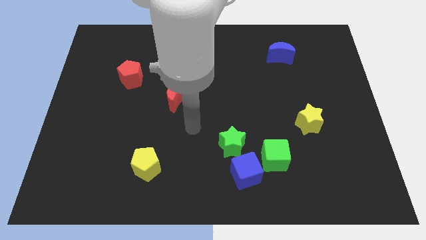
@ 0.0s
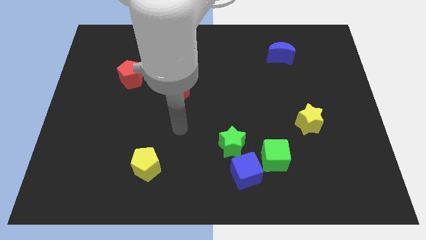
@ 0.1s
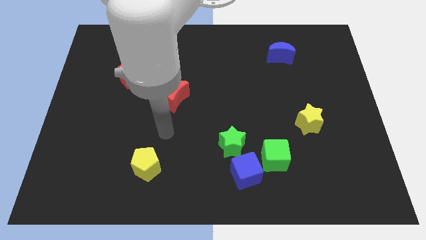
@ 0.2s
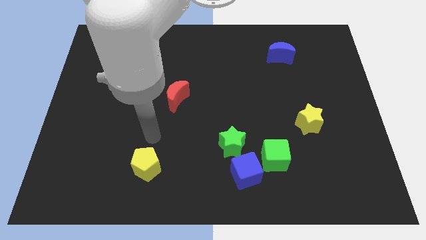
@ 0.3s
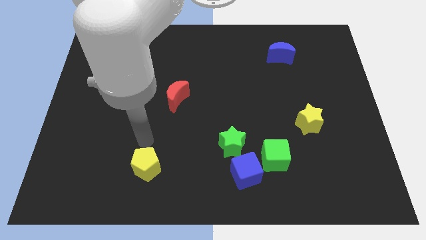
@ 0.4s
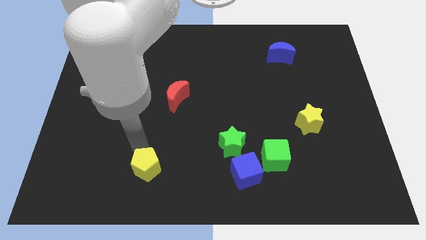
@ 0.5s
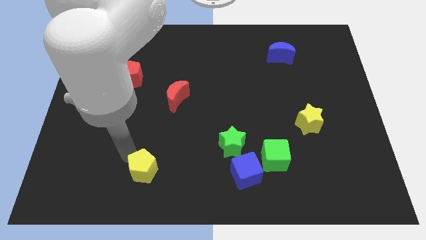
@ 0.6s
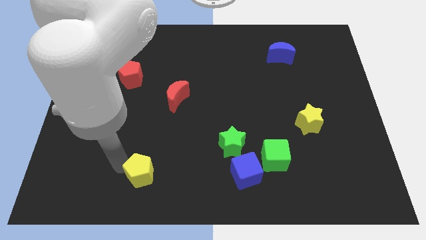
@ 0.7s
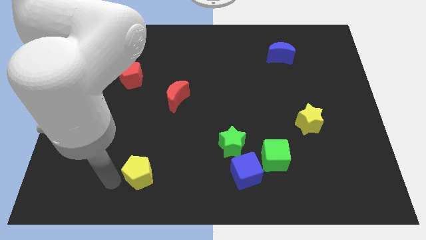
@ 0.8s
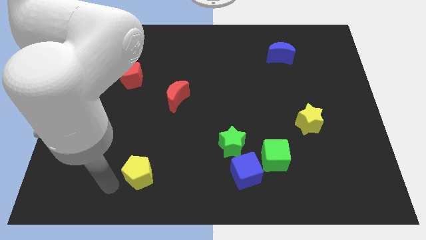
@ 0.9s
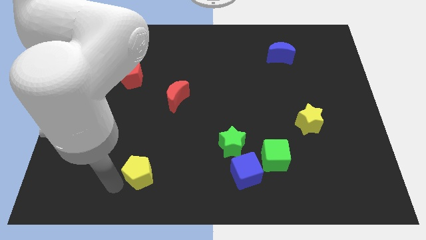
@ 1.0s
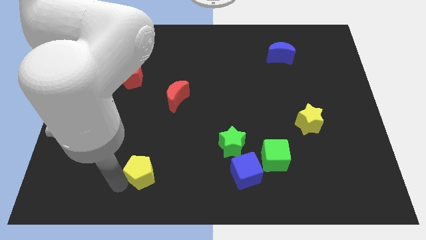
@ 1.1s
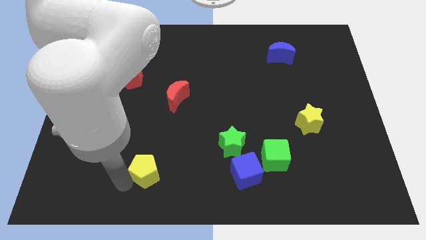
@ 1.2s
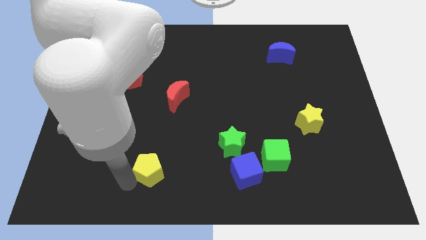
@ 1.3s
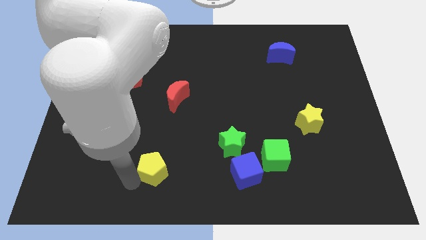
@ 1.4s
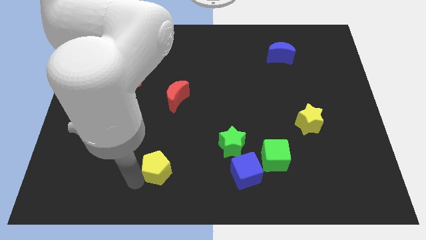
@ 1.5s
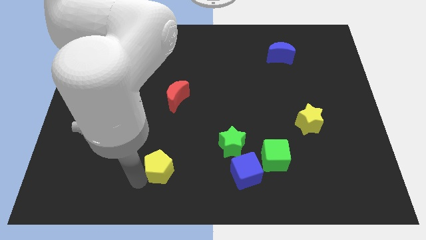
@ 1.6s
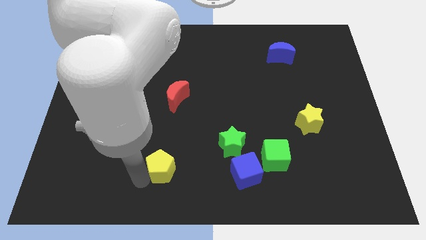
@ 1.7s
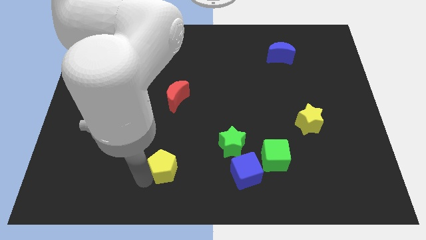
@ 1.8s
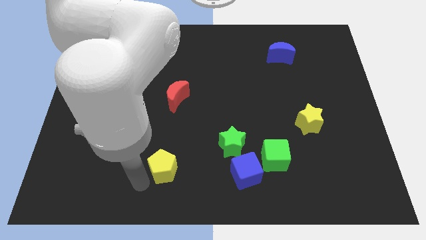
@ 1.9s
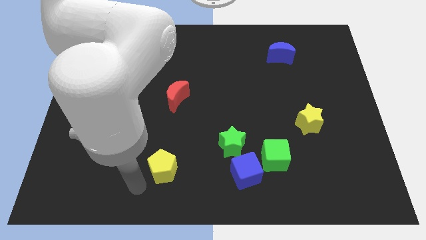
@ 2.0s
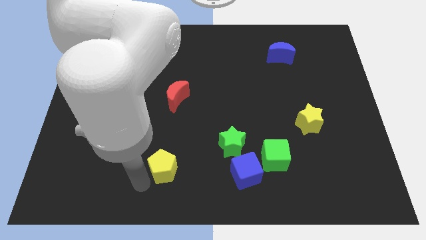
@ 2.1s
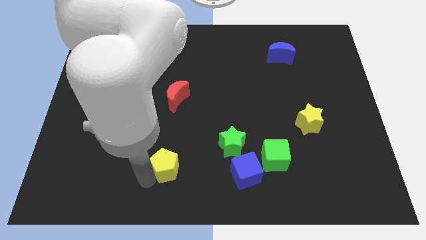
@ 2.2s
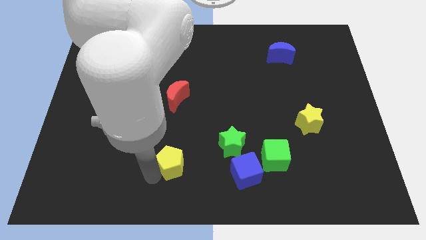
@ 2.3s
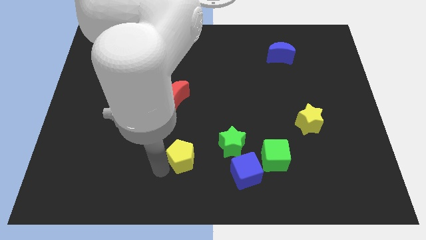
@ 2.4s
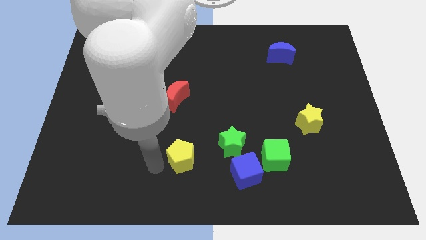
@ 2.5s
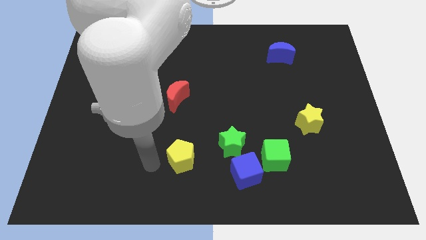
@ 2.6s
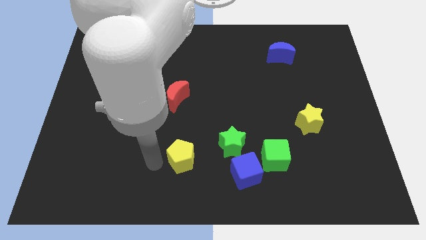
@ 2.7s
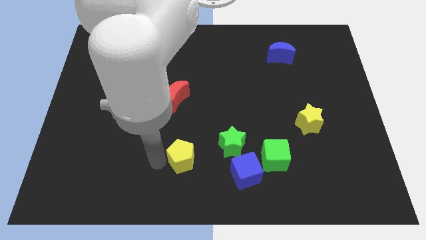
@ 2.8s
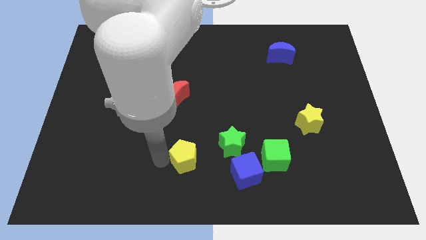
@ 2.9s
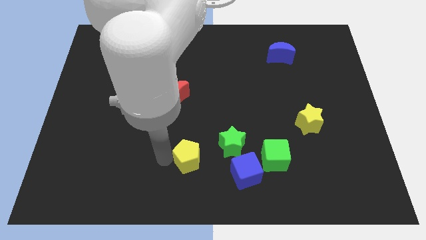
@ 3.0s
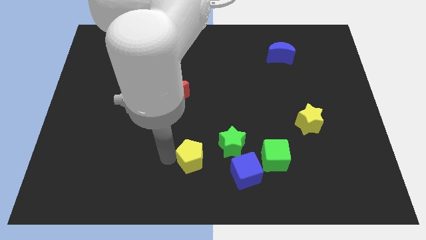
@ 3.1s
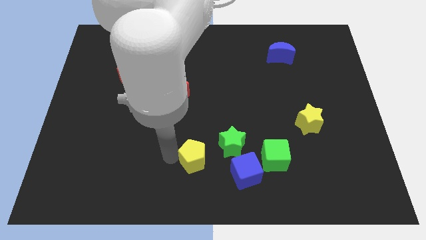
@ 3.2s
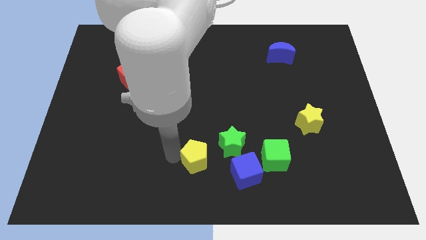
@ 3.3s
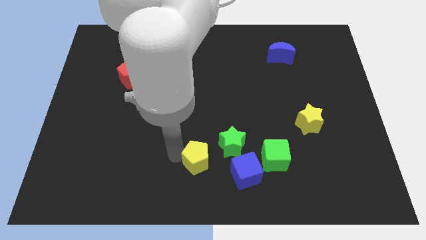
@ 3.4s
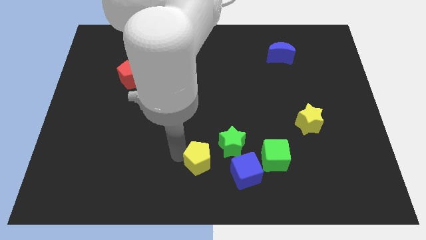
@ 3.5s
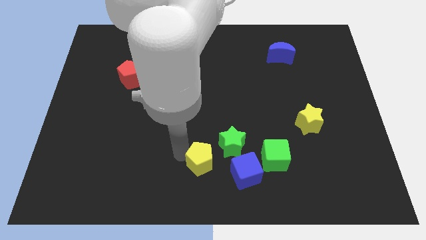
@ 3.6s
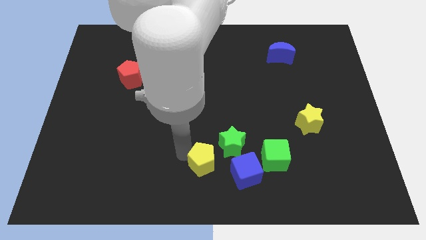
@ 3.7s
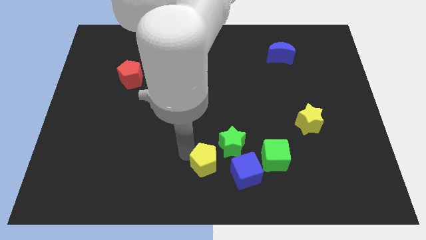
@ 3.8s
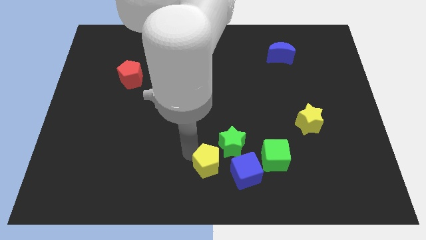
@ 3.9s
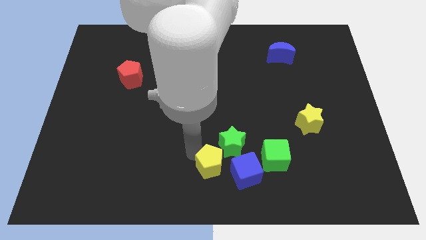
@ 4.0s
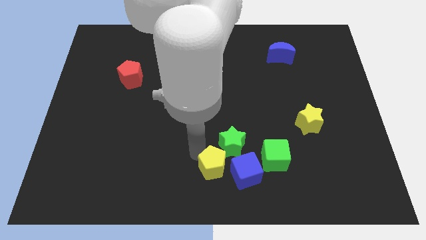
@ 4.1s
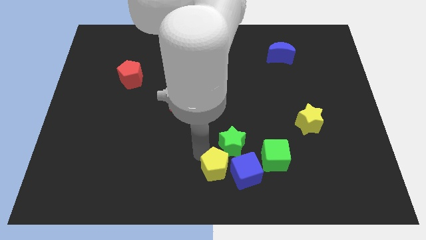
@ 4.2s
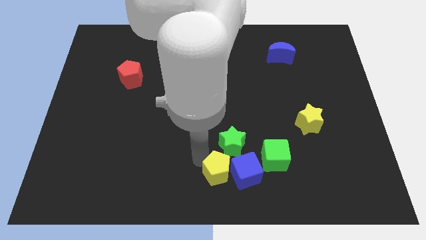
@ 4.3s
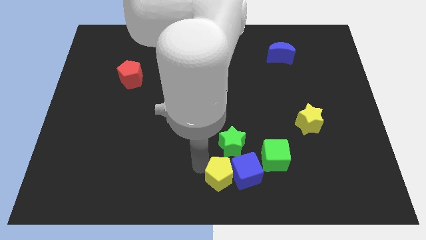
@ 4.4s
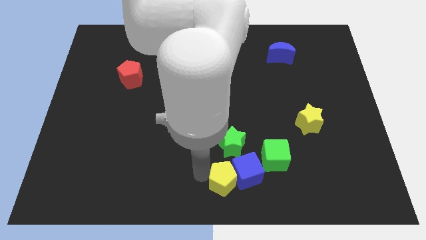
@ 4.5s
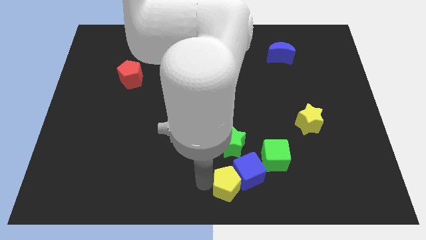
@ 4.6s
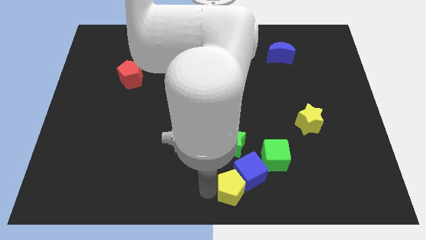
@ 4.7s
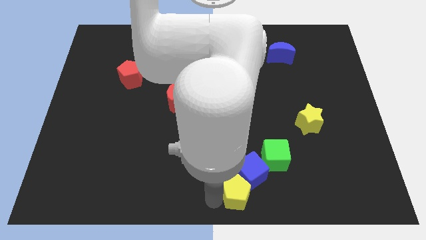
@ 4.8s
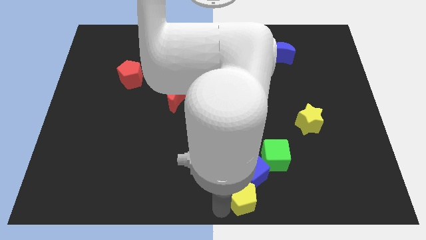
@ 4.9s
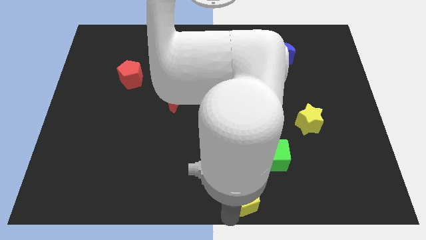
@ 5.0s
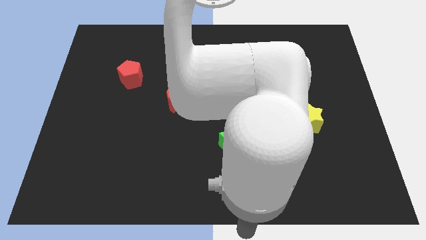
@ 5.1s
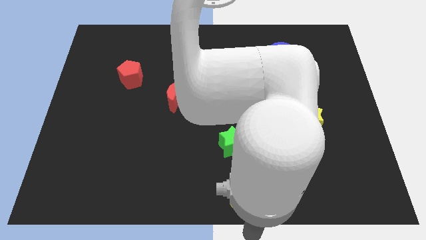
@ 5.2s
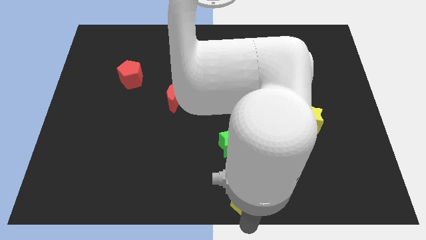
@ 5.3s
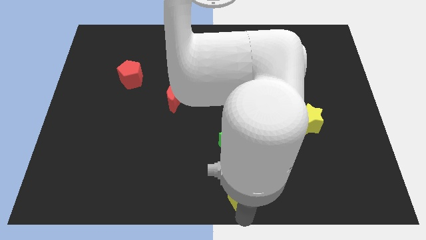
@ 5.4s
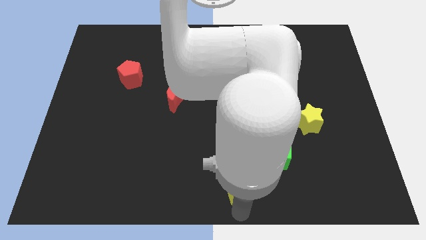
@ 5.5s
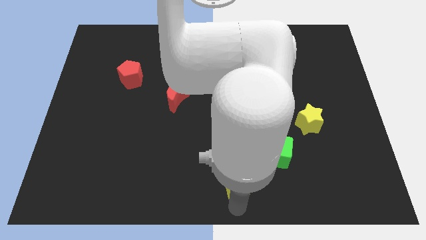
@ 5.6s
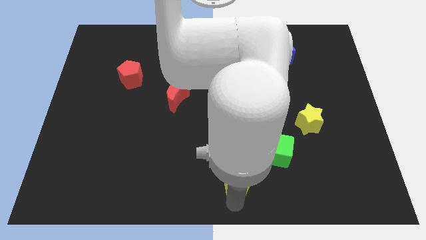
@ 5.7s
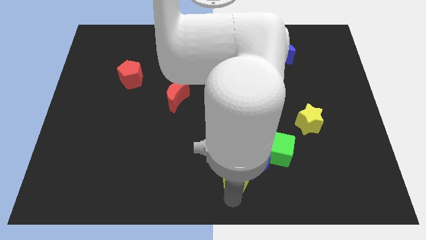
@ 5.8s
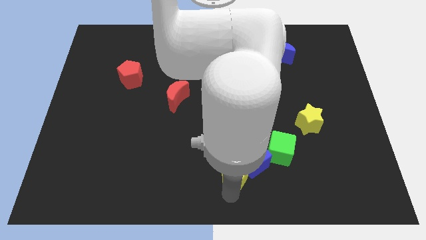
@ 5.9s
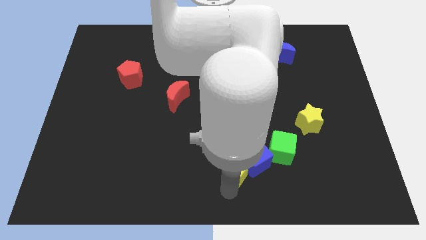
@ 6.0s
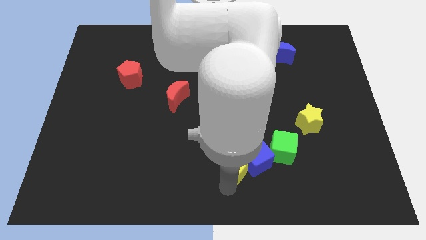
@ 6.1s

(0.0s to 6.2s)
move the yellow pentagon to the green star

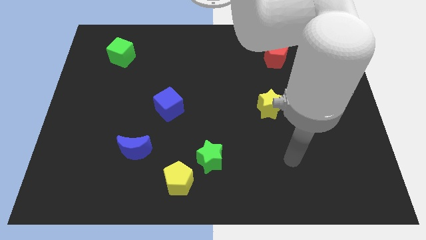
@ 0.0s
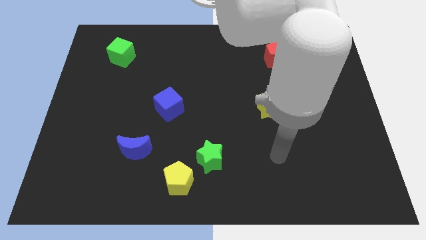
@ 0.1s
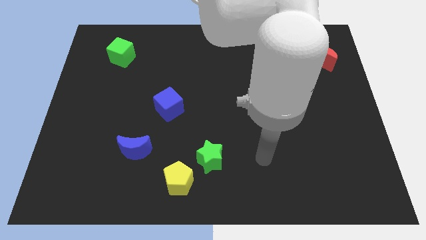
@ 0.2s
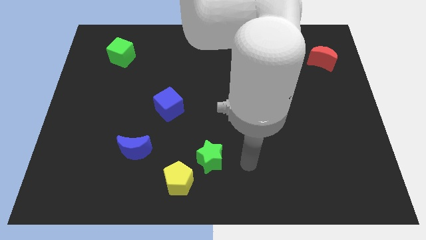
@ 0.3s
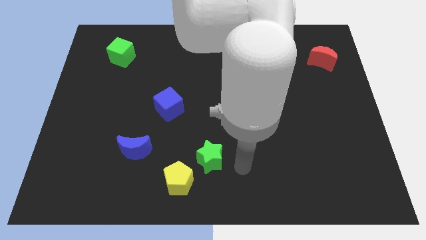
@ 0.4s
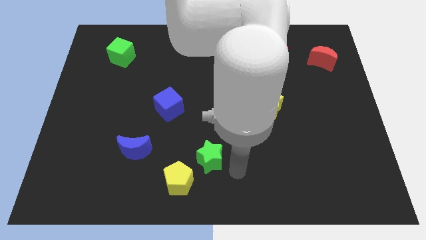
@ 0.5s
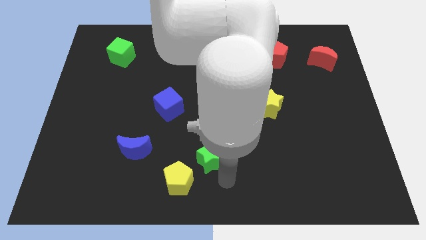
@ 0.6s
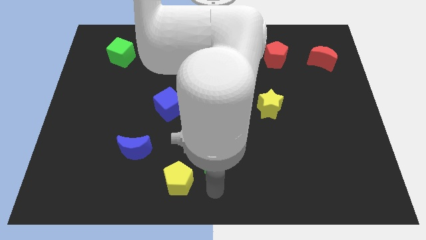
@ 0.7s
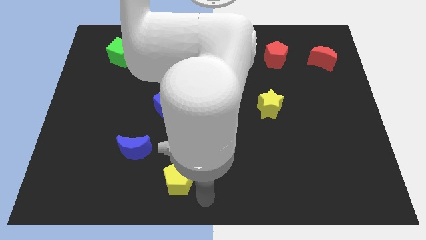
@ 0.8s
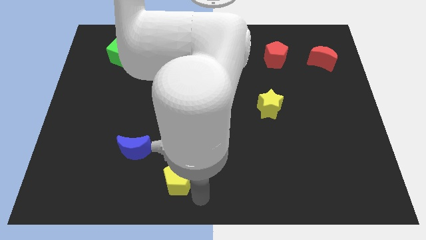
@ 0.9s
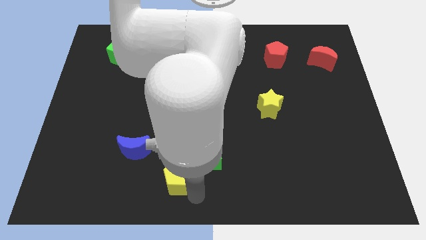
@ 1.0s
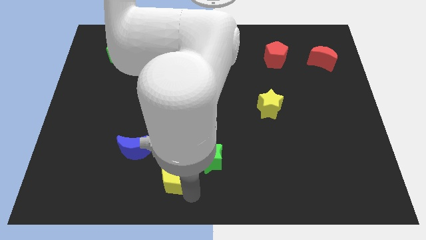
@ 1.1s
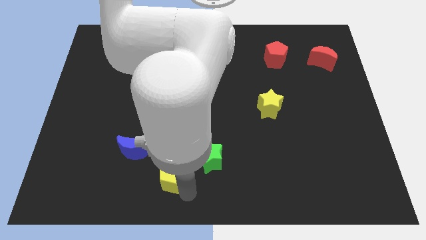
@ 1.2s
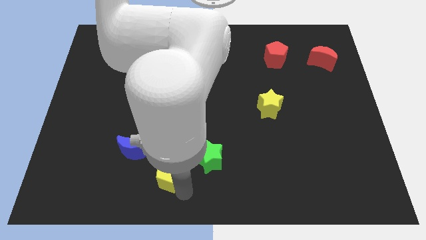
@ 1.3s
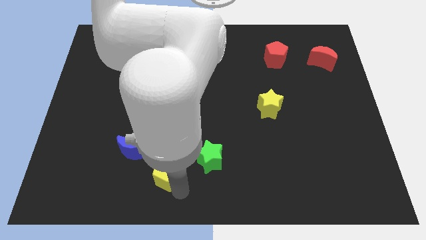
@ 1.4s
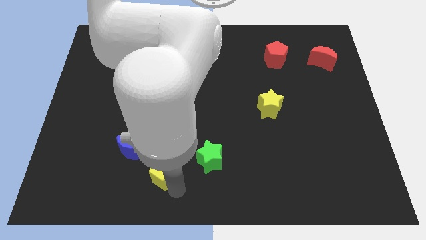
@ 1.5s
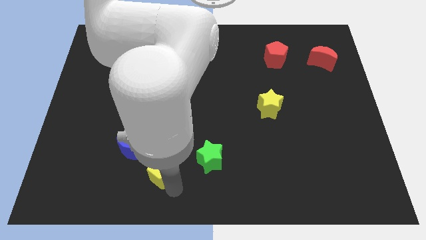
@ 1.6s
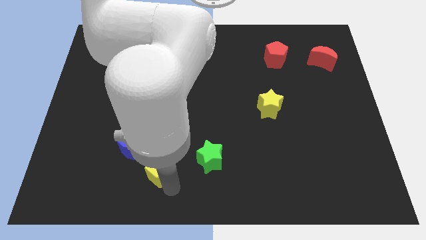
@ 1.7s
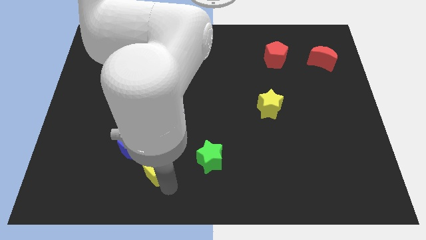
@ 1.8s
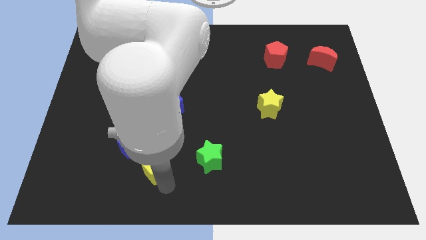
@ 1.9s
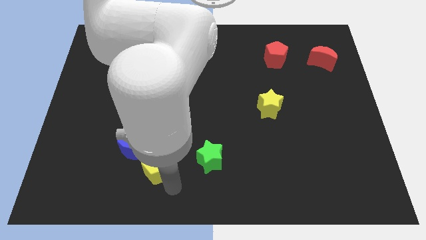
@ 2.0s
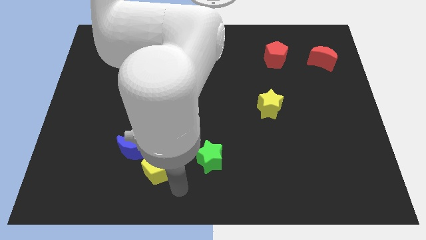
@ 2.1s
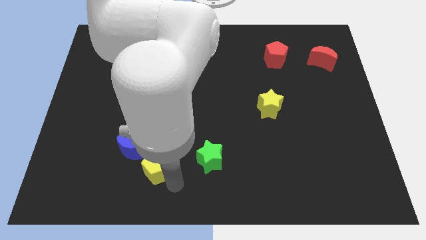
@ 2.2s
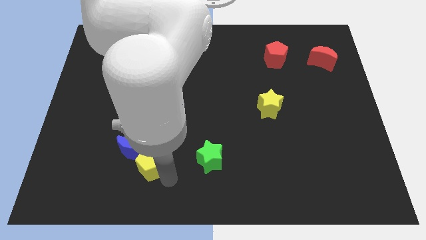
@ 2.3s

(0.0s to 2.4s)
push the yellow pentagon to the blue moon
